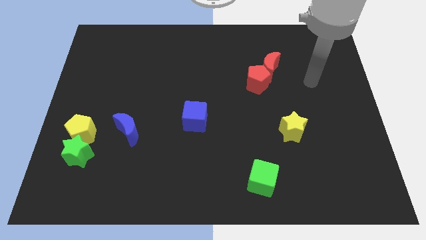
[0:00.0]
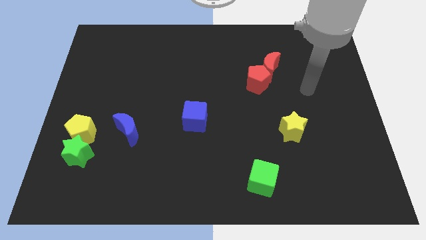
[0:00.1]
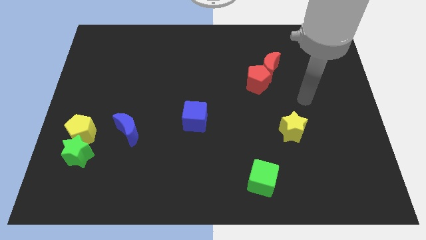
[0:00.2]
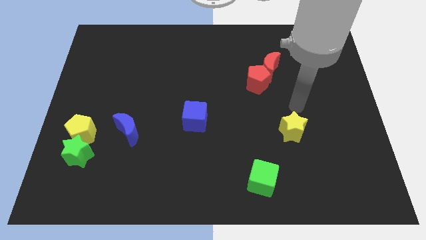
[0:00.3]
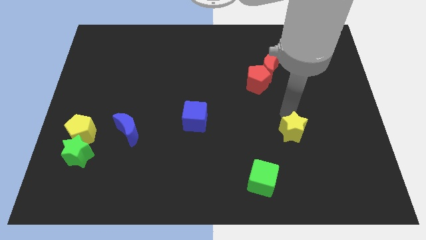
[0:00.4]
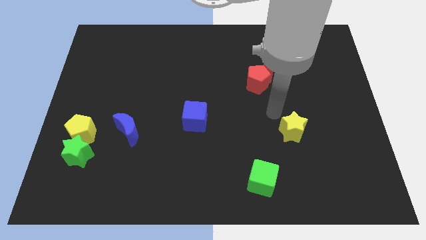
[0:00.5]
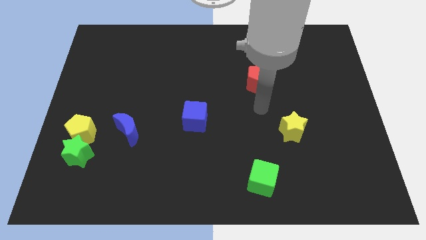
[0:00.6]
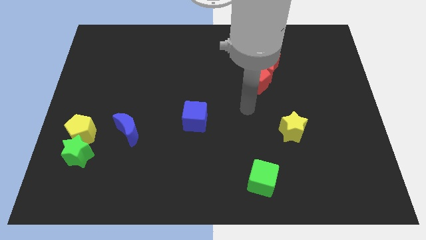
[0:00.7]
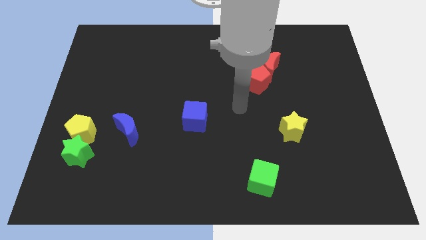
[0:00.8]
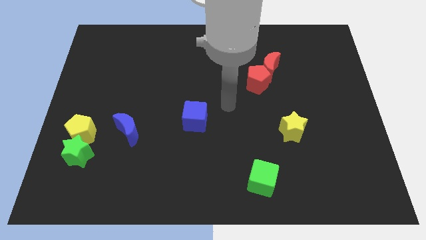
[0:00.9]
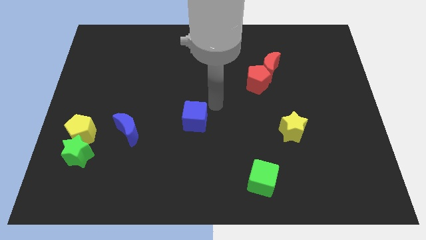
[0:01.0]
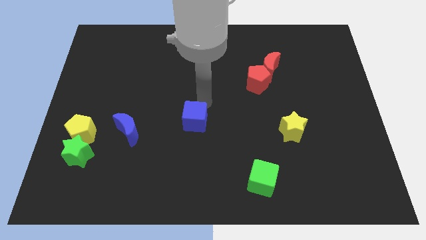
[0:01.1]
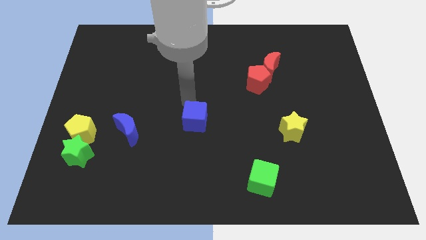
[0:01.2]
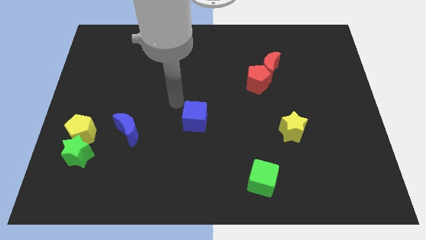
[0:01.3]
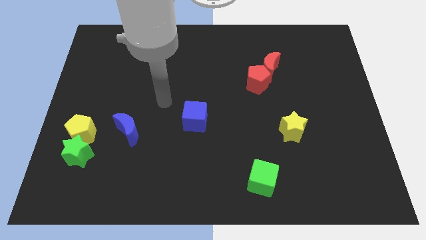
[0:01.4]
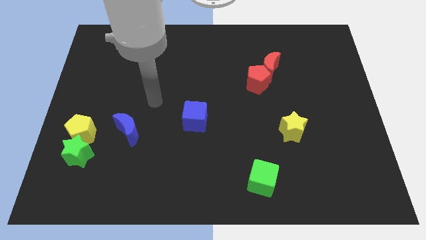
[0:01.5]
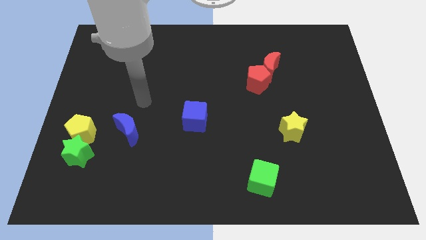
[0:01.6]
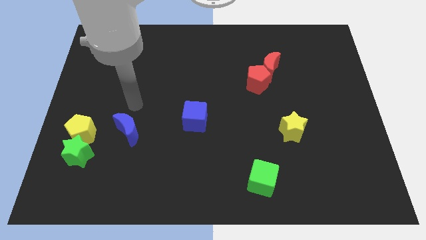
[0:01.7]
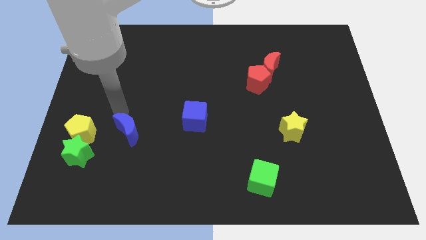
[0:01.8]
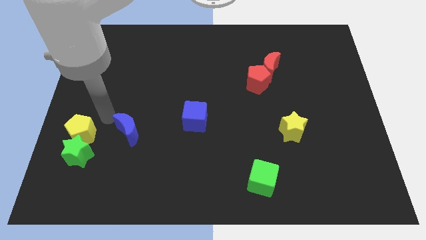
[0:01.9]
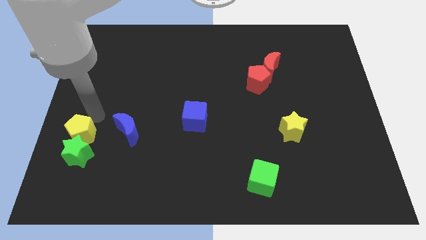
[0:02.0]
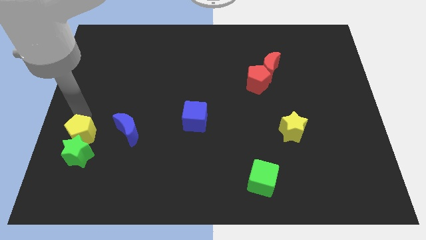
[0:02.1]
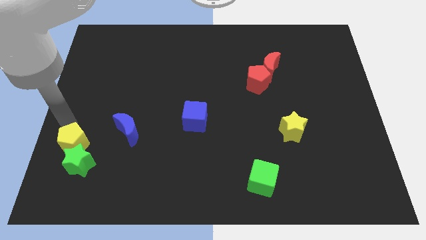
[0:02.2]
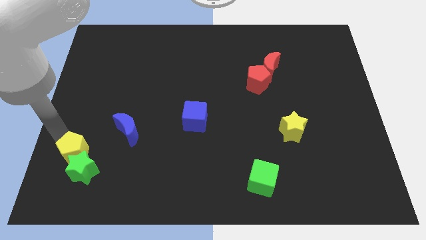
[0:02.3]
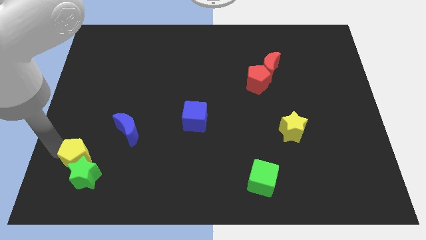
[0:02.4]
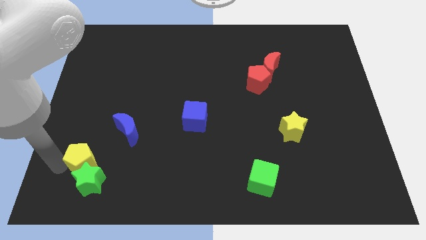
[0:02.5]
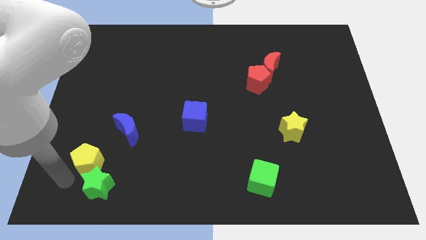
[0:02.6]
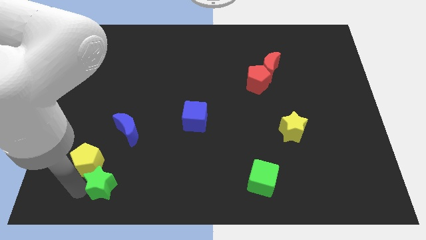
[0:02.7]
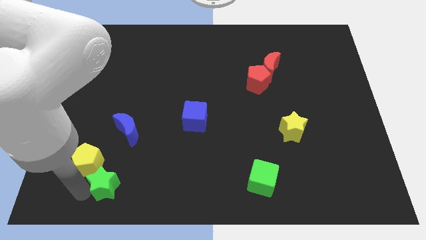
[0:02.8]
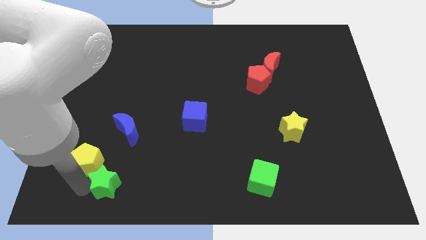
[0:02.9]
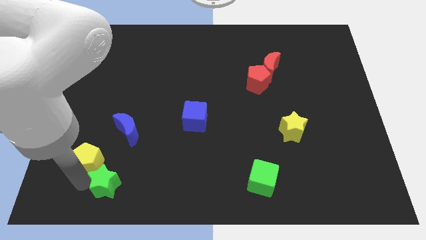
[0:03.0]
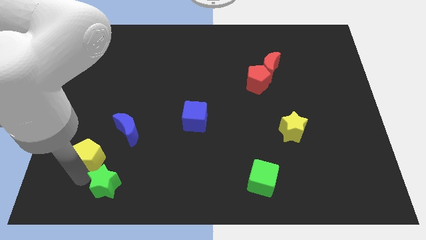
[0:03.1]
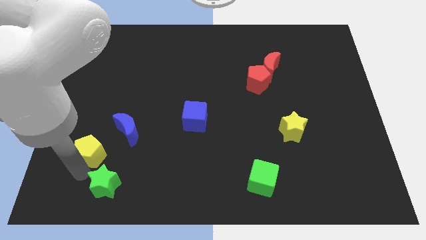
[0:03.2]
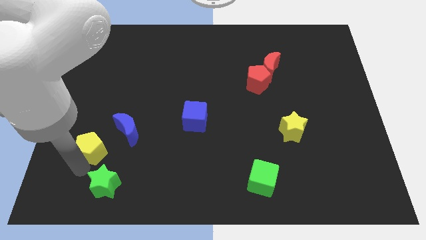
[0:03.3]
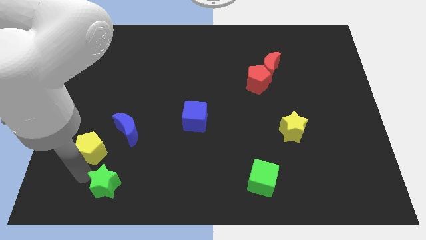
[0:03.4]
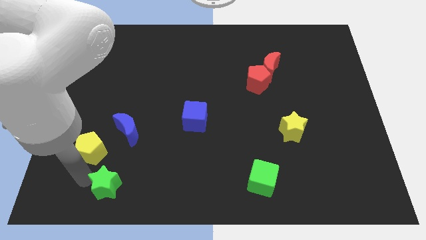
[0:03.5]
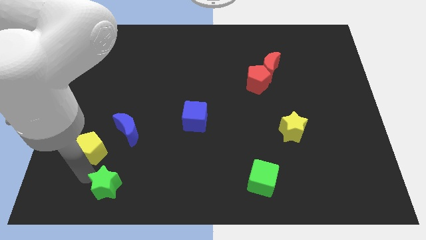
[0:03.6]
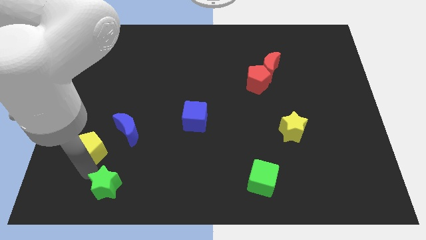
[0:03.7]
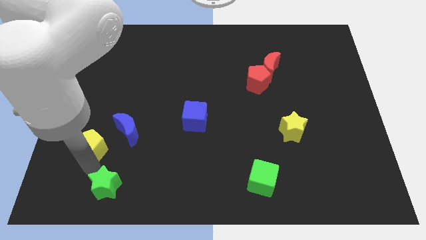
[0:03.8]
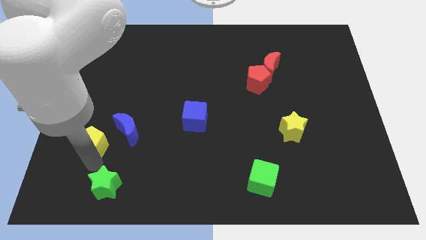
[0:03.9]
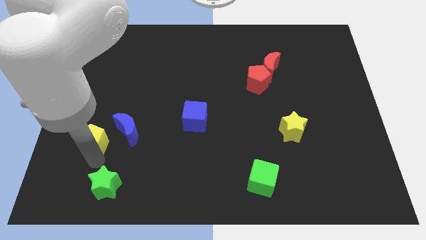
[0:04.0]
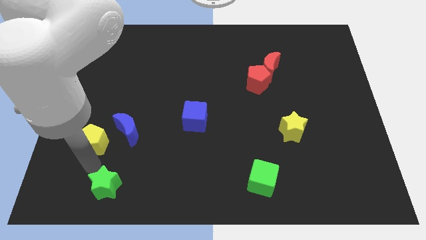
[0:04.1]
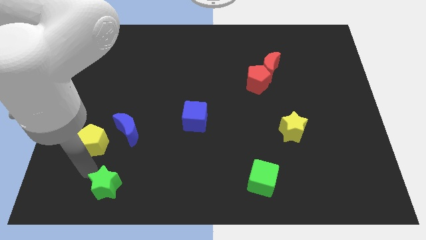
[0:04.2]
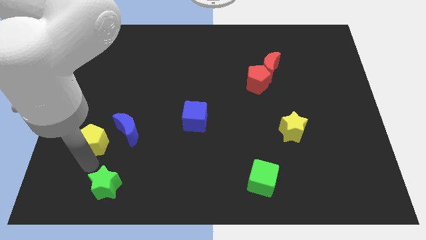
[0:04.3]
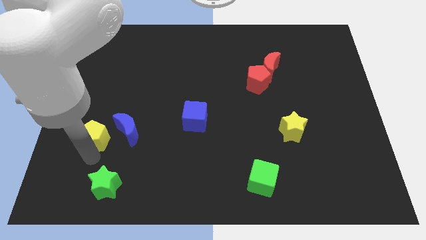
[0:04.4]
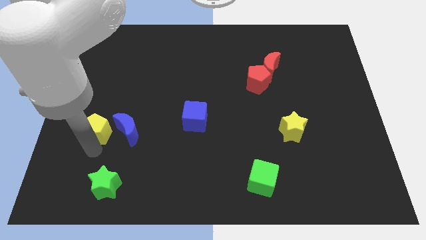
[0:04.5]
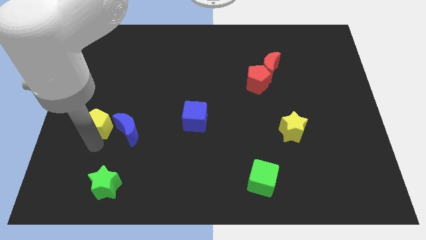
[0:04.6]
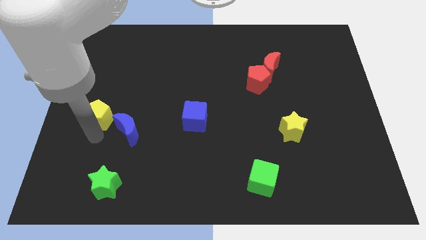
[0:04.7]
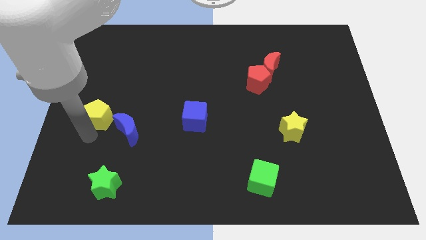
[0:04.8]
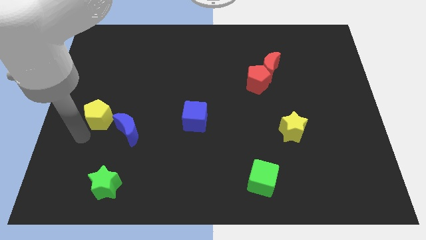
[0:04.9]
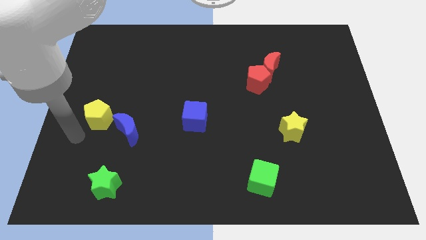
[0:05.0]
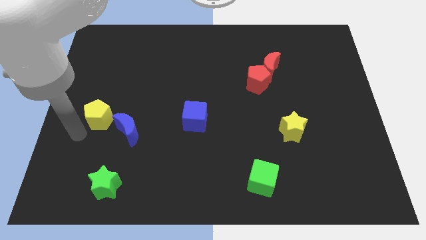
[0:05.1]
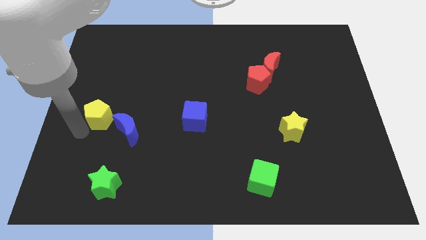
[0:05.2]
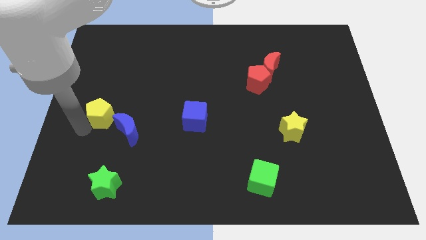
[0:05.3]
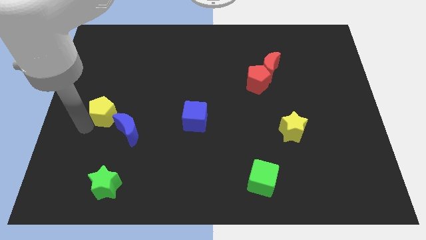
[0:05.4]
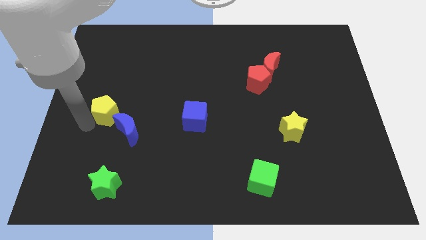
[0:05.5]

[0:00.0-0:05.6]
slightly slide the yellow pentagon upwards and to the right diagonally

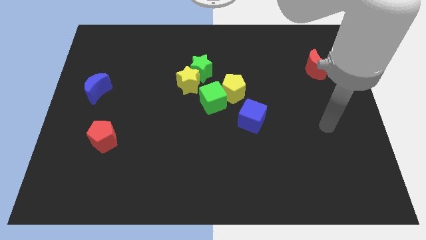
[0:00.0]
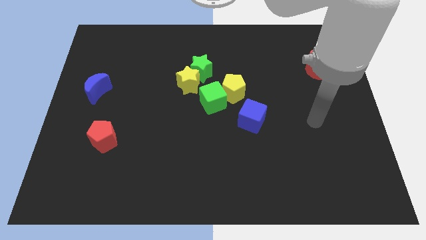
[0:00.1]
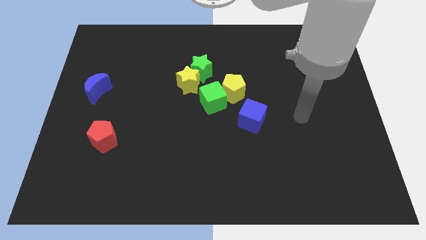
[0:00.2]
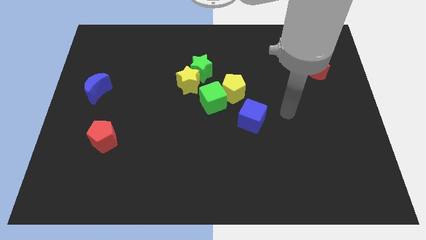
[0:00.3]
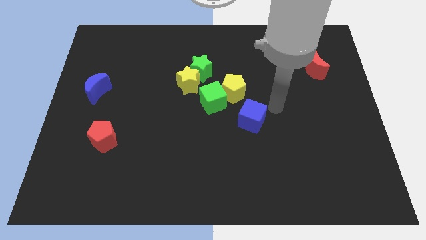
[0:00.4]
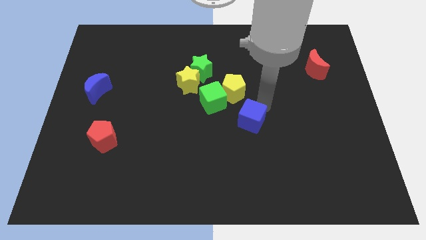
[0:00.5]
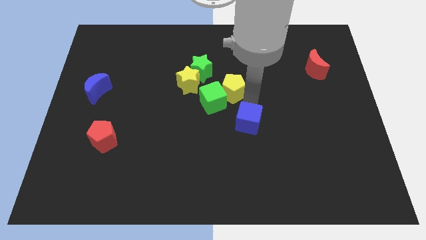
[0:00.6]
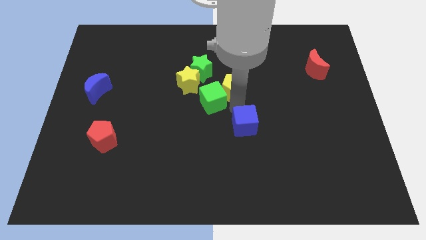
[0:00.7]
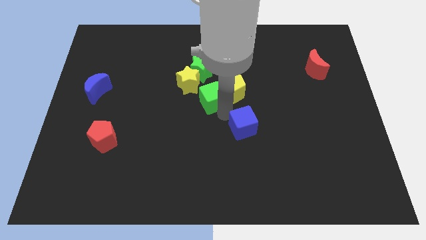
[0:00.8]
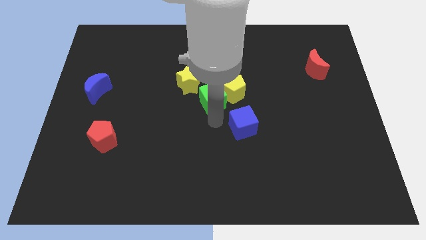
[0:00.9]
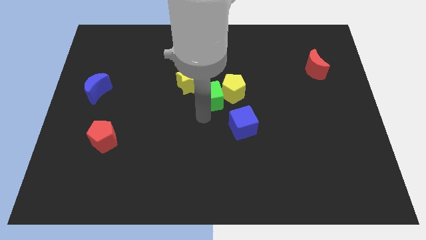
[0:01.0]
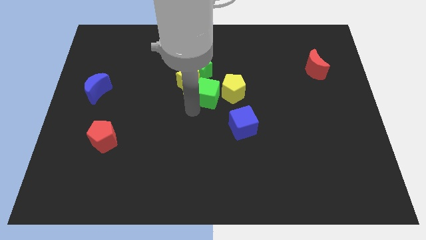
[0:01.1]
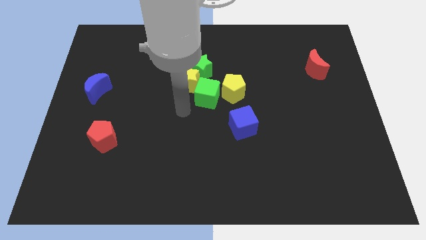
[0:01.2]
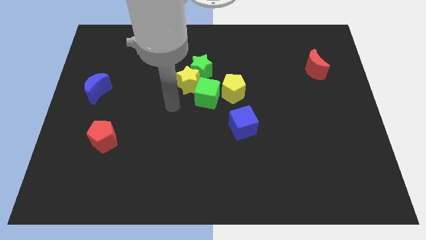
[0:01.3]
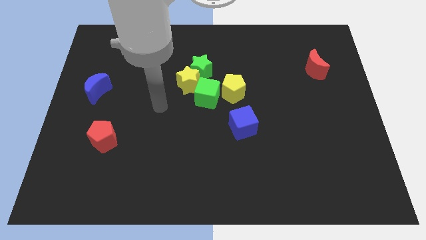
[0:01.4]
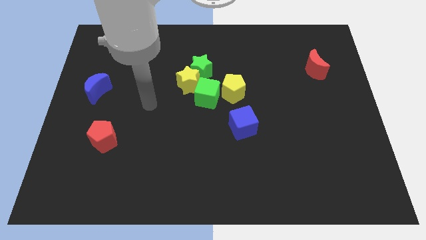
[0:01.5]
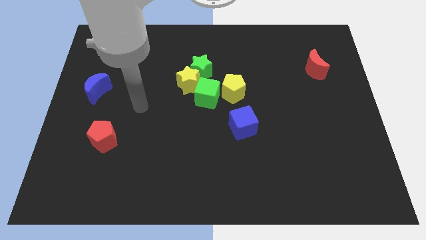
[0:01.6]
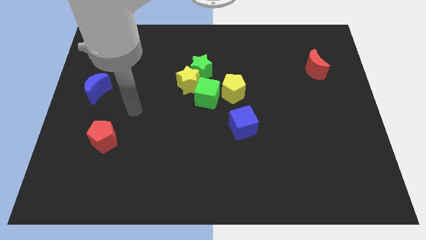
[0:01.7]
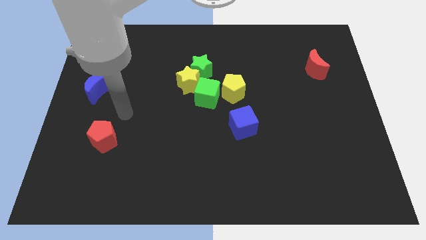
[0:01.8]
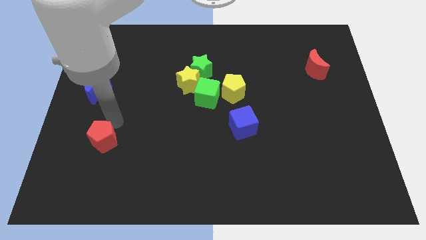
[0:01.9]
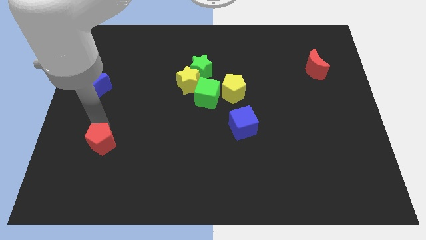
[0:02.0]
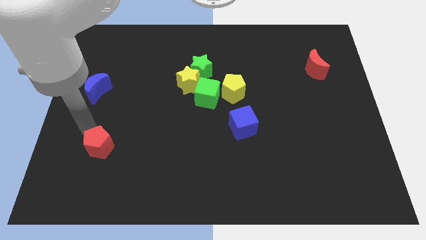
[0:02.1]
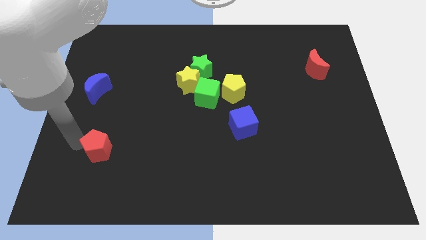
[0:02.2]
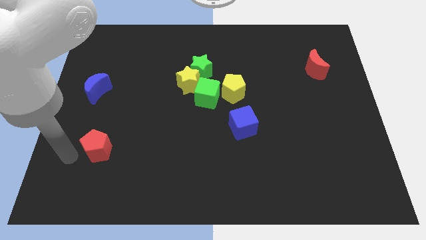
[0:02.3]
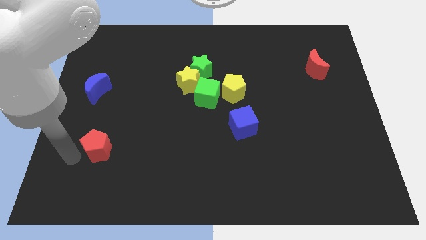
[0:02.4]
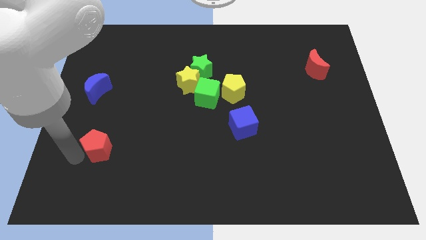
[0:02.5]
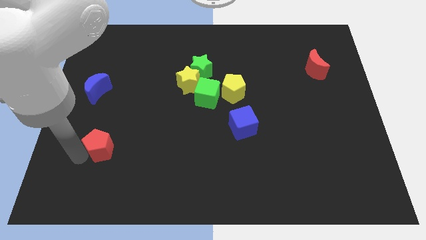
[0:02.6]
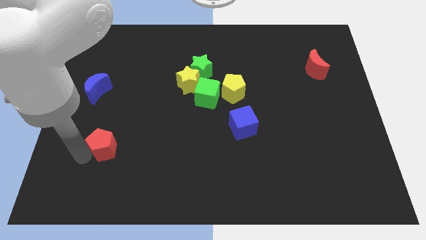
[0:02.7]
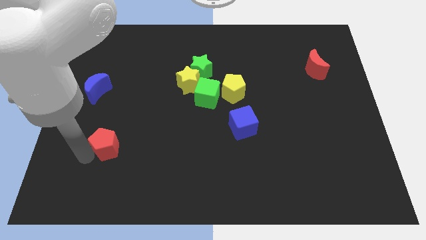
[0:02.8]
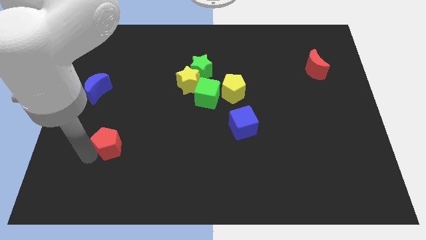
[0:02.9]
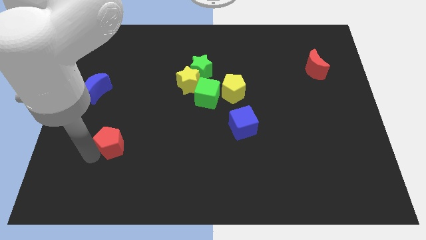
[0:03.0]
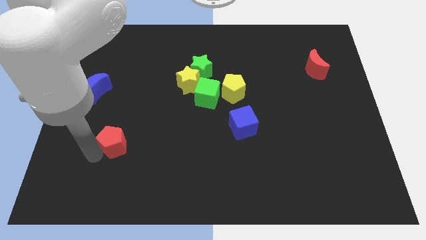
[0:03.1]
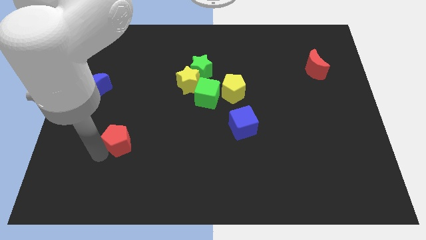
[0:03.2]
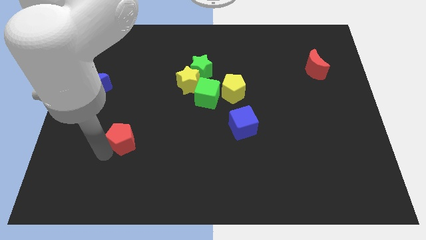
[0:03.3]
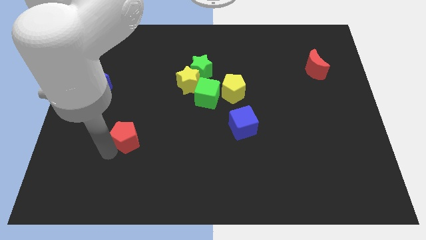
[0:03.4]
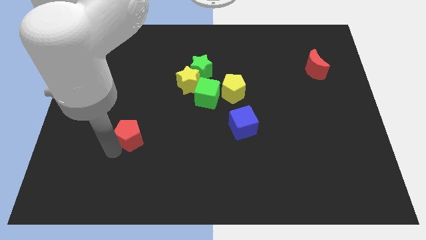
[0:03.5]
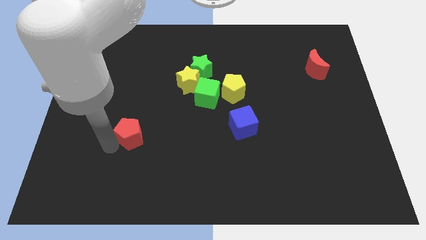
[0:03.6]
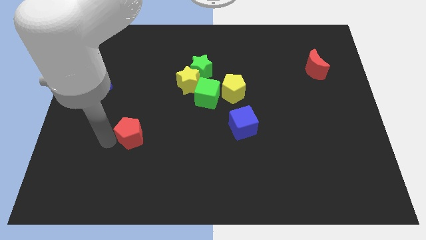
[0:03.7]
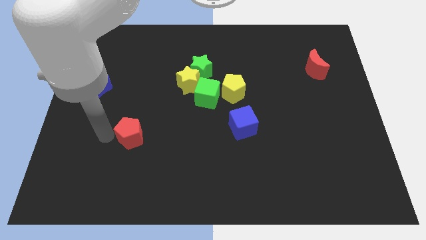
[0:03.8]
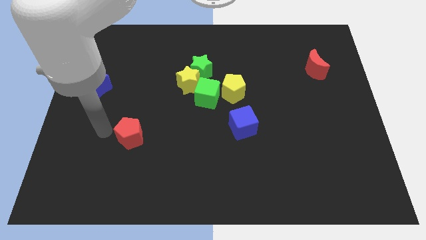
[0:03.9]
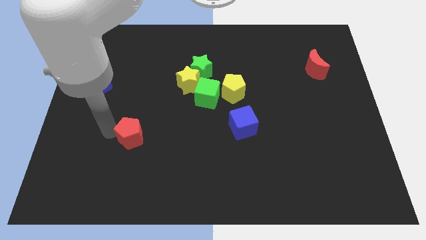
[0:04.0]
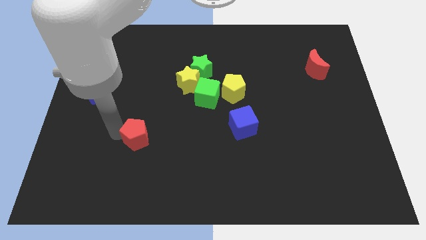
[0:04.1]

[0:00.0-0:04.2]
move the red pentagon right slightly
